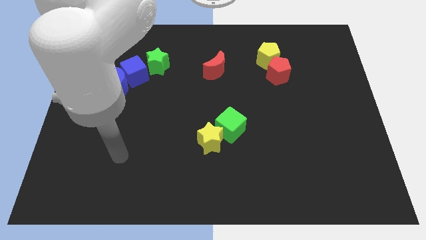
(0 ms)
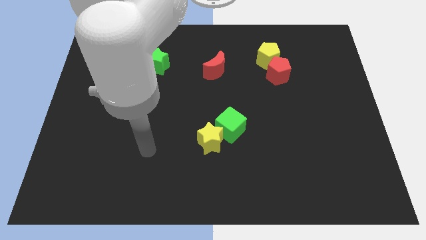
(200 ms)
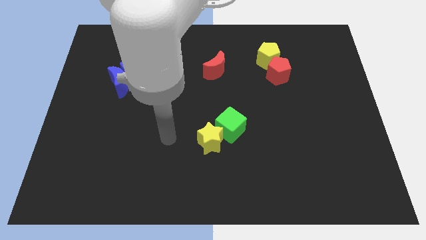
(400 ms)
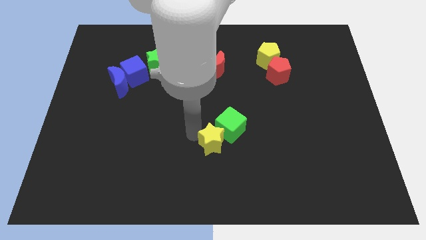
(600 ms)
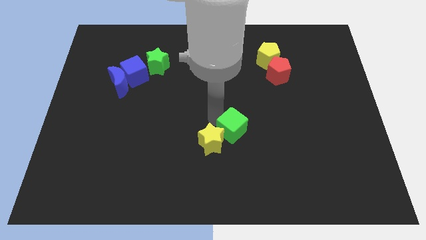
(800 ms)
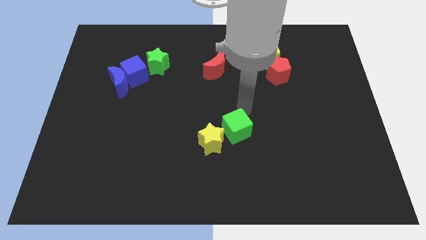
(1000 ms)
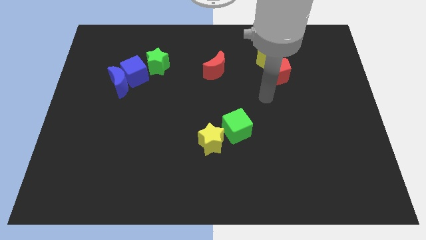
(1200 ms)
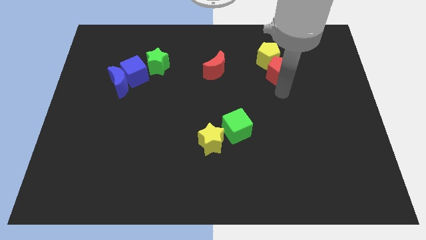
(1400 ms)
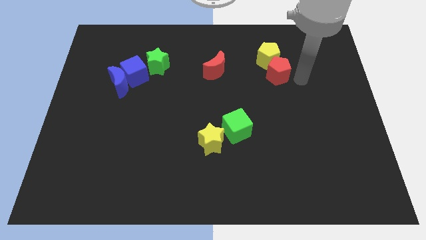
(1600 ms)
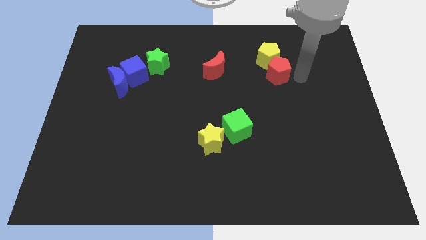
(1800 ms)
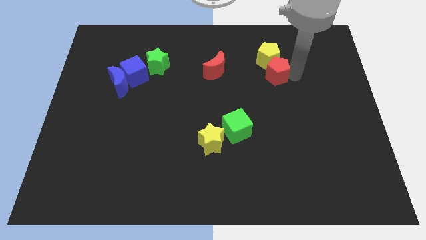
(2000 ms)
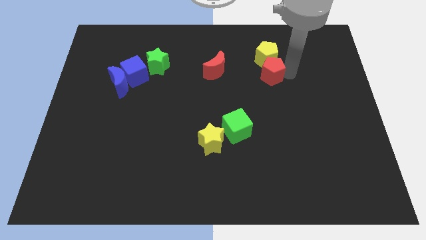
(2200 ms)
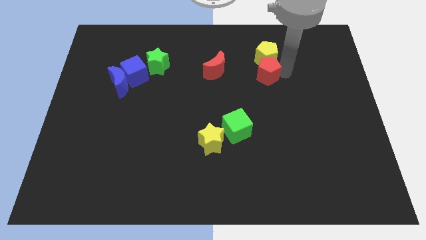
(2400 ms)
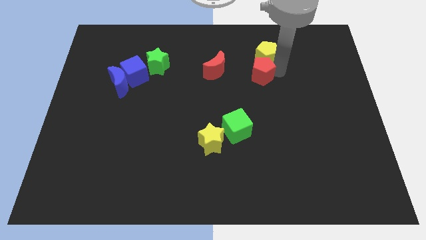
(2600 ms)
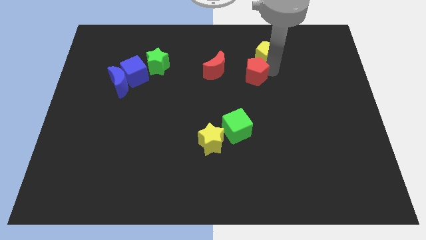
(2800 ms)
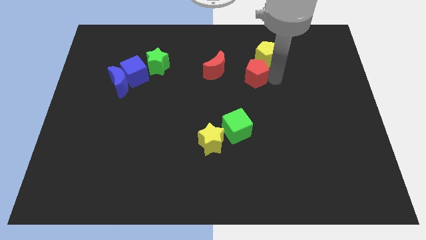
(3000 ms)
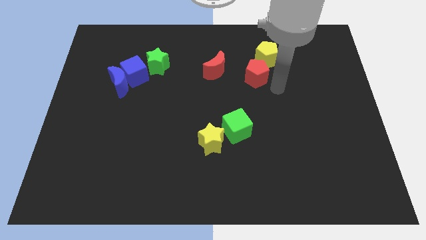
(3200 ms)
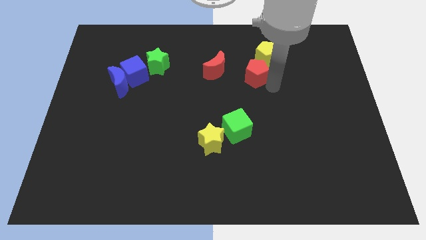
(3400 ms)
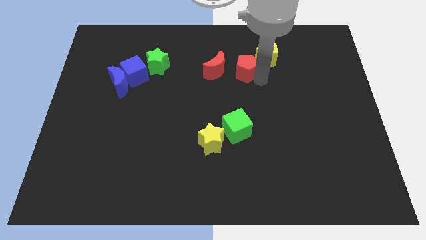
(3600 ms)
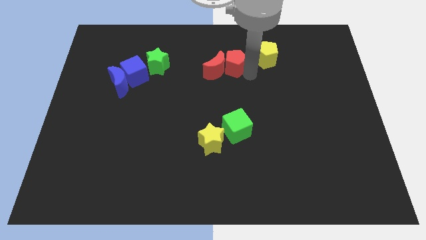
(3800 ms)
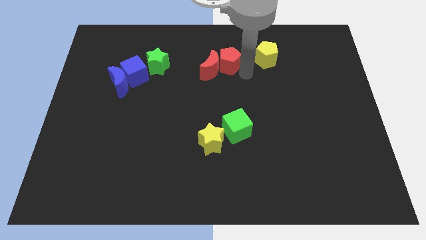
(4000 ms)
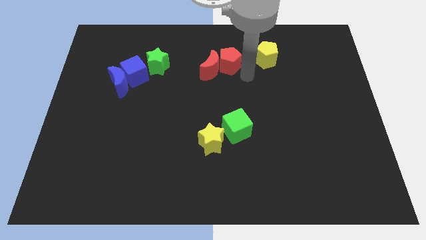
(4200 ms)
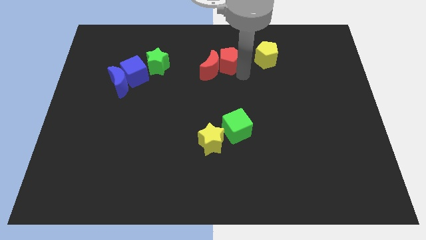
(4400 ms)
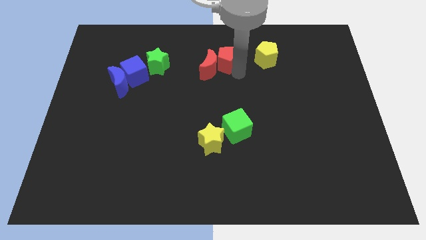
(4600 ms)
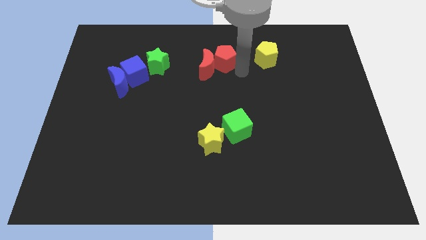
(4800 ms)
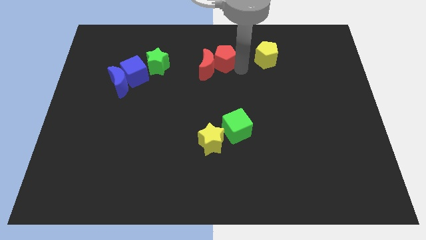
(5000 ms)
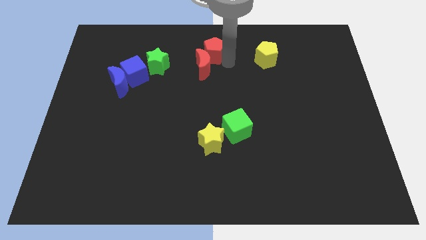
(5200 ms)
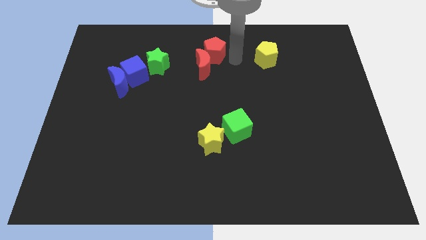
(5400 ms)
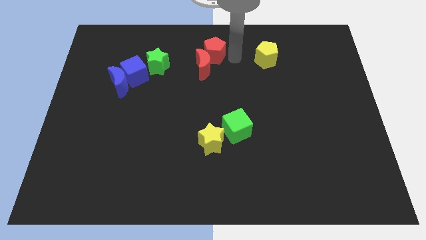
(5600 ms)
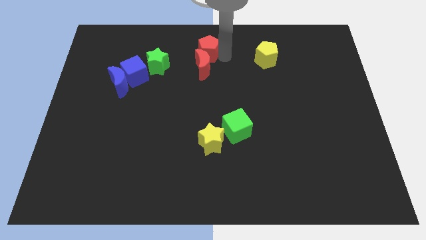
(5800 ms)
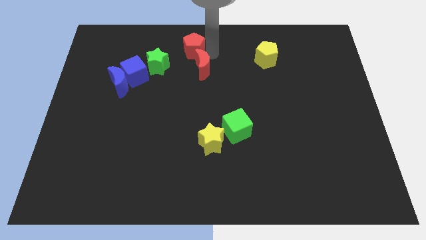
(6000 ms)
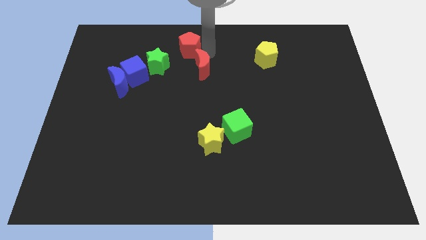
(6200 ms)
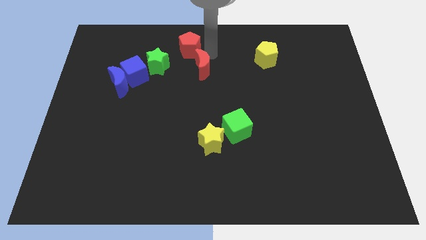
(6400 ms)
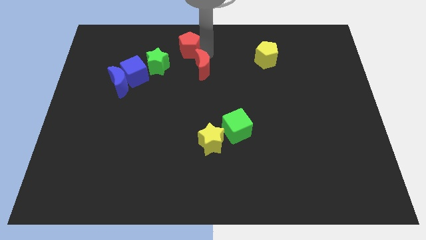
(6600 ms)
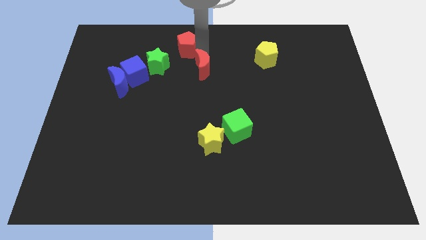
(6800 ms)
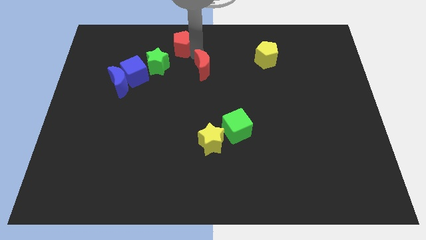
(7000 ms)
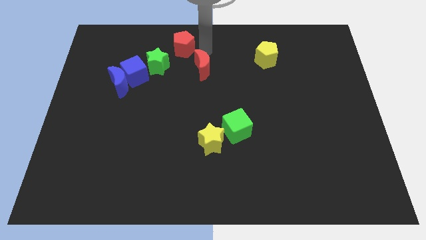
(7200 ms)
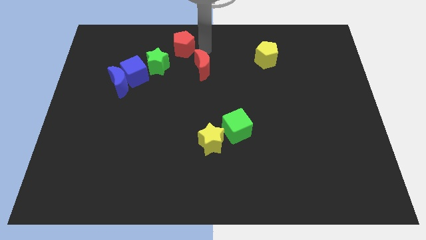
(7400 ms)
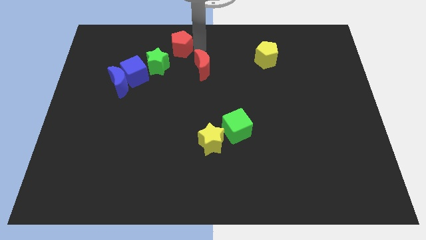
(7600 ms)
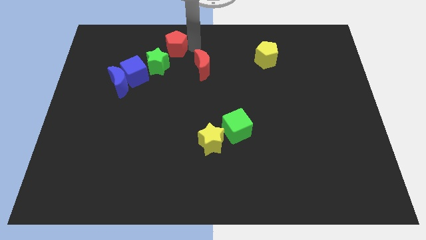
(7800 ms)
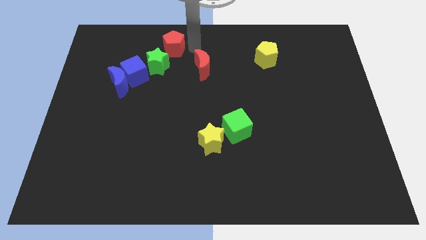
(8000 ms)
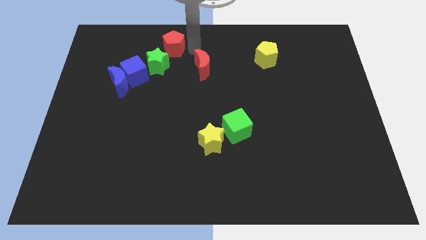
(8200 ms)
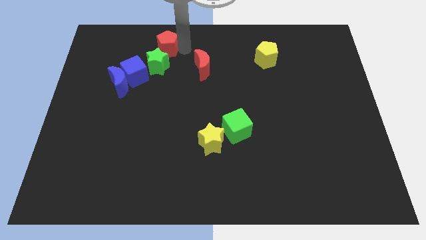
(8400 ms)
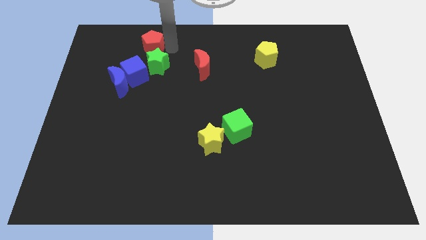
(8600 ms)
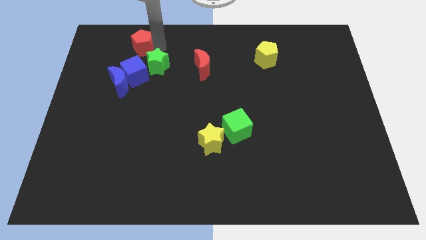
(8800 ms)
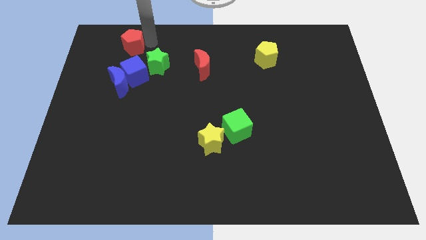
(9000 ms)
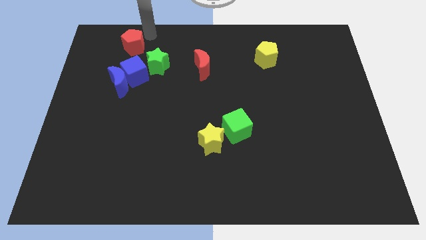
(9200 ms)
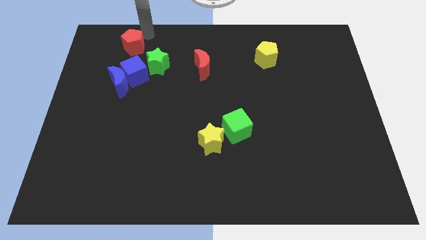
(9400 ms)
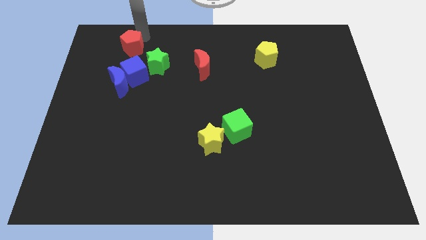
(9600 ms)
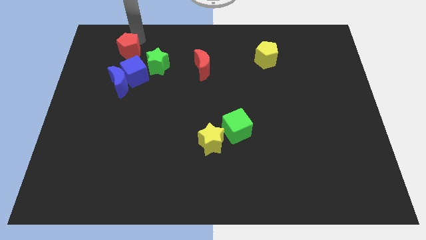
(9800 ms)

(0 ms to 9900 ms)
push the red pentagon to the top left side of the blue cube

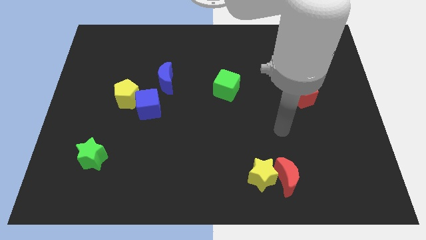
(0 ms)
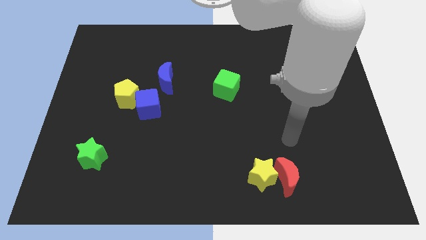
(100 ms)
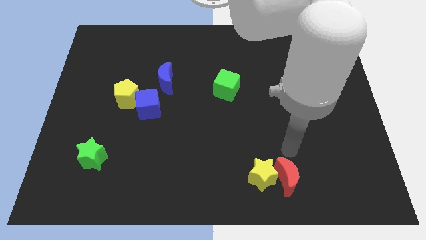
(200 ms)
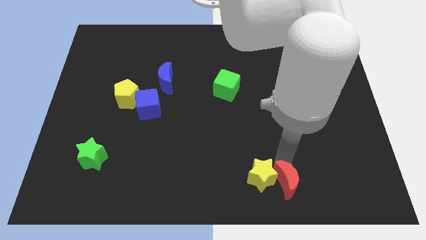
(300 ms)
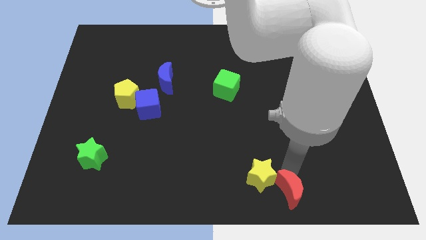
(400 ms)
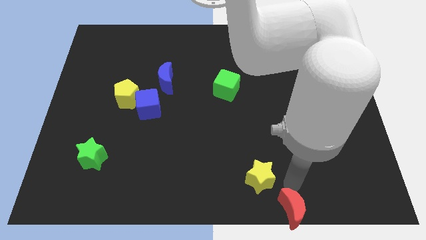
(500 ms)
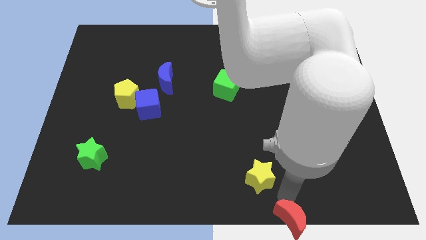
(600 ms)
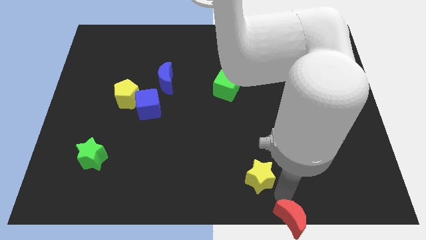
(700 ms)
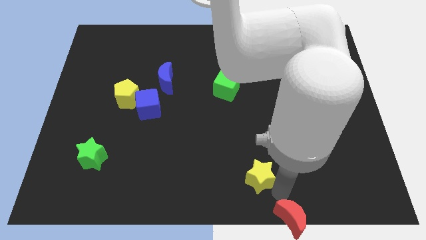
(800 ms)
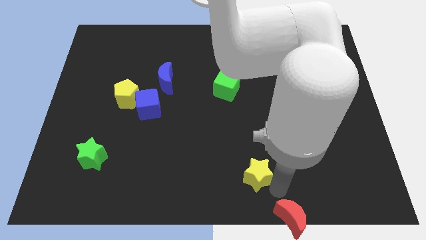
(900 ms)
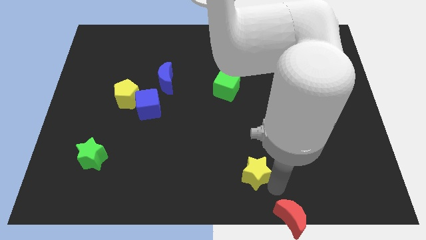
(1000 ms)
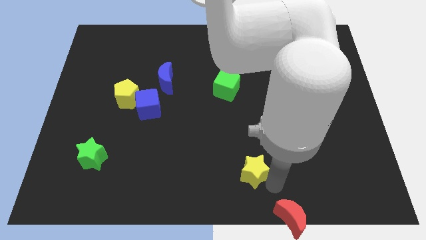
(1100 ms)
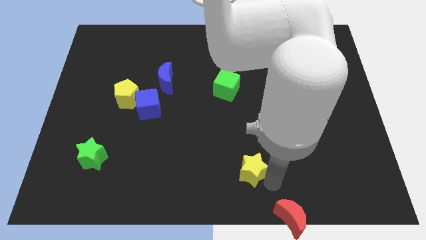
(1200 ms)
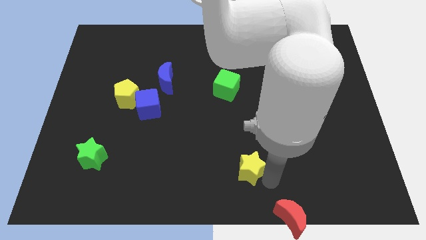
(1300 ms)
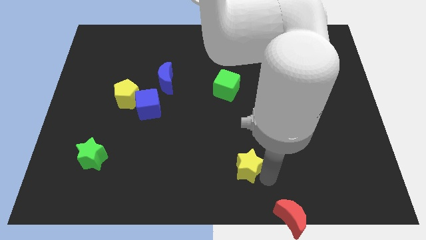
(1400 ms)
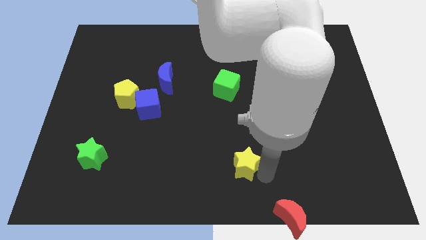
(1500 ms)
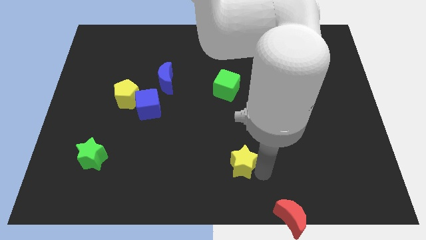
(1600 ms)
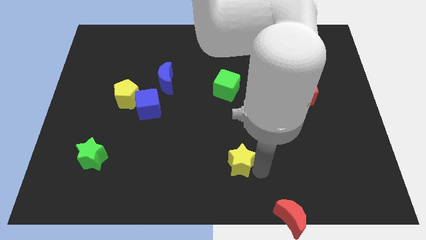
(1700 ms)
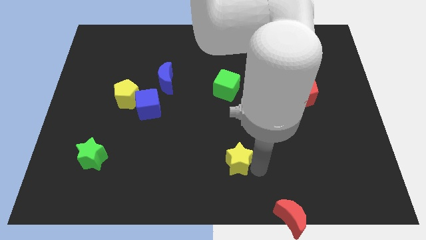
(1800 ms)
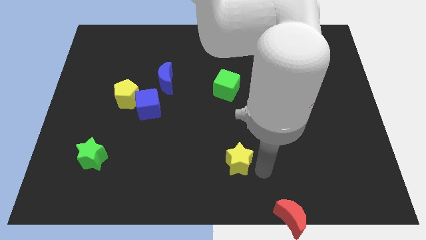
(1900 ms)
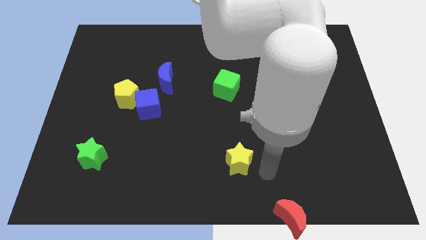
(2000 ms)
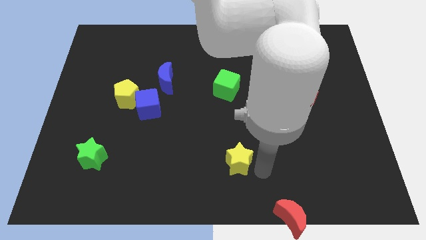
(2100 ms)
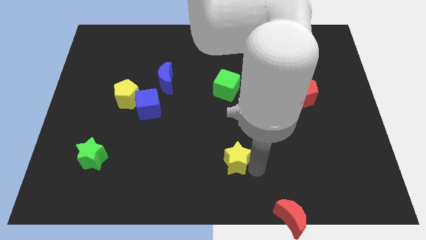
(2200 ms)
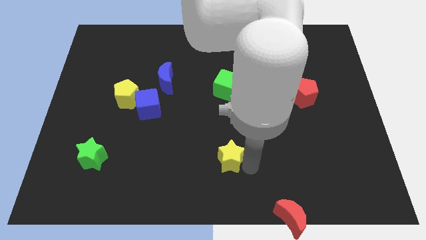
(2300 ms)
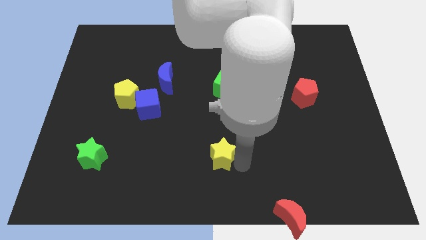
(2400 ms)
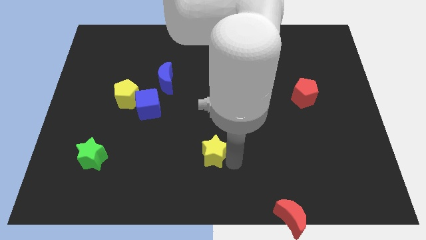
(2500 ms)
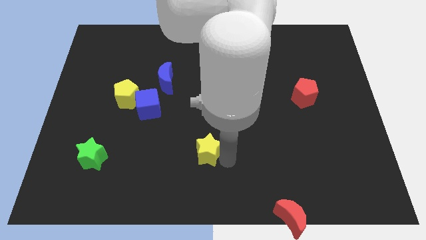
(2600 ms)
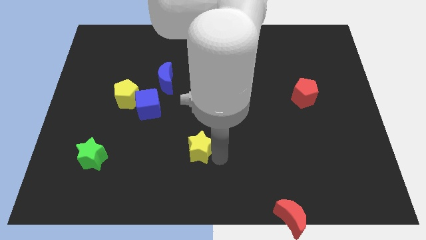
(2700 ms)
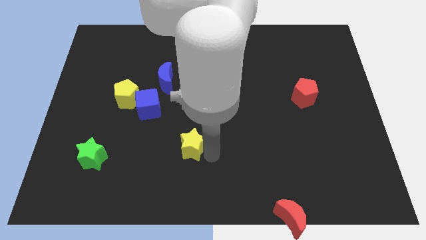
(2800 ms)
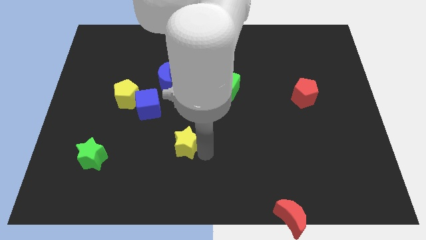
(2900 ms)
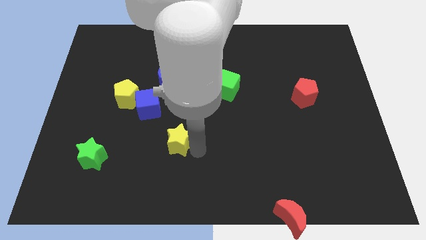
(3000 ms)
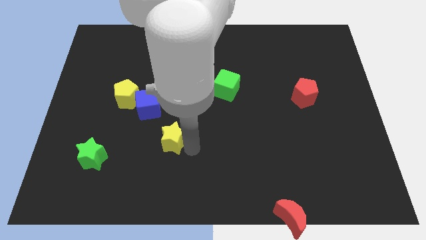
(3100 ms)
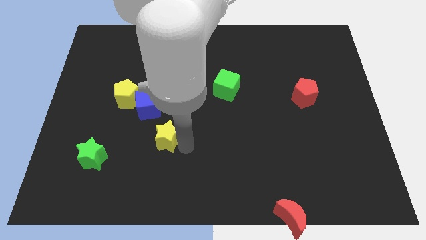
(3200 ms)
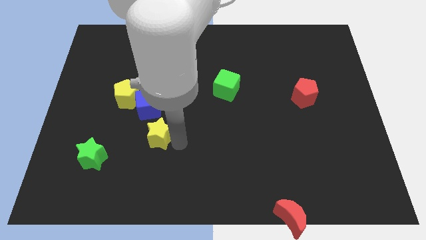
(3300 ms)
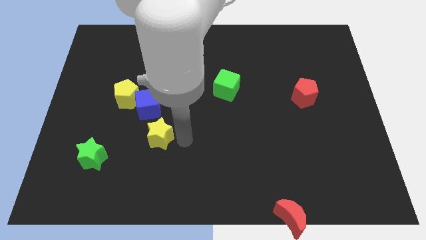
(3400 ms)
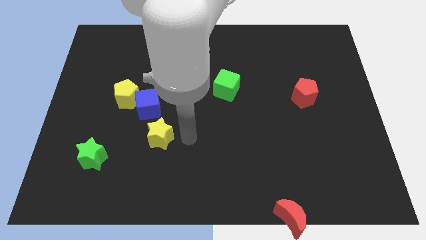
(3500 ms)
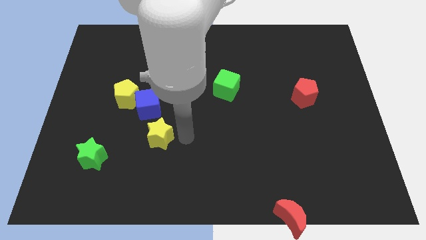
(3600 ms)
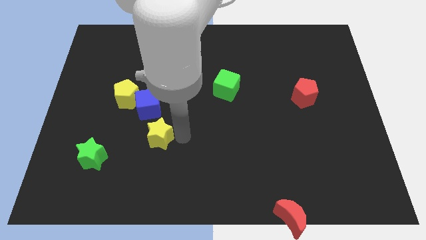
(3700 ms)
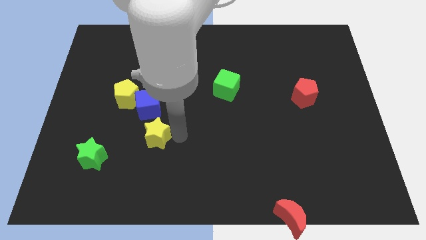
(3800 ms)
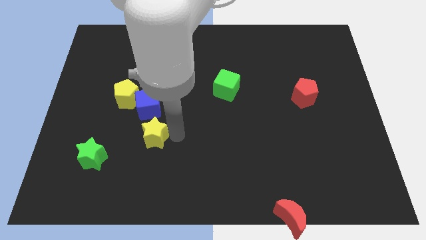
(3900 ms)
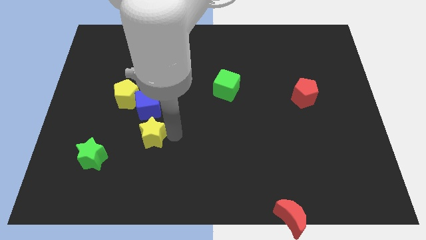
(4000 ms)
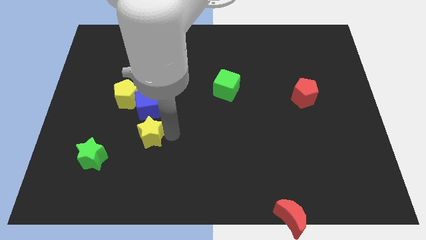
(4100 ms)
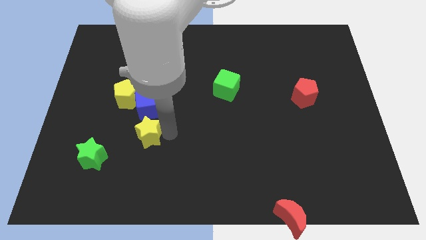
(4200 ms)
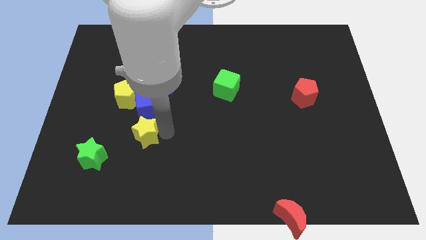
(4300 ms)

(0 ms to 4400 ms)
push the yellow star to the top right of the green star
